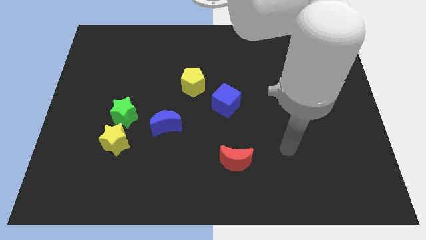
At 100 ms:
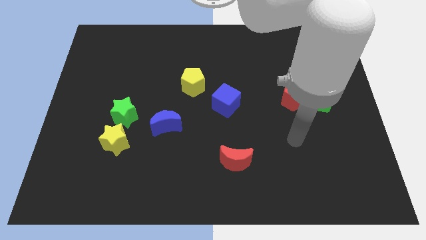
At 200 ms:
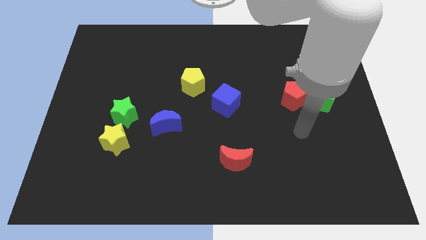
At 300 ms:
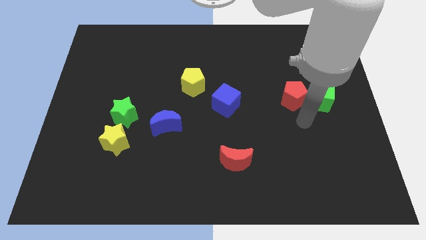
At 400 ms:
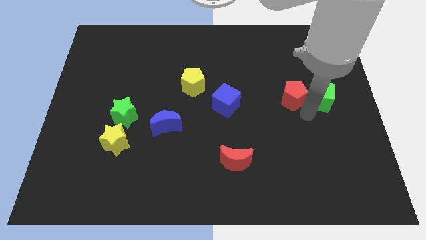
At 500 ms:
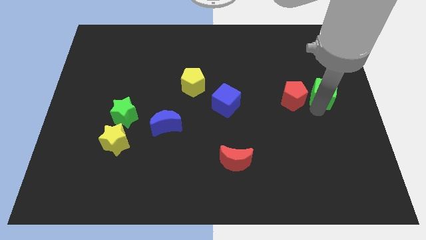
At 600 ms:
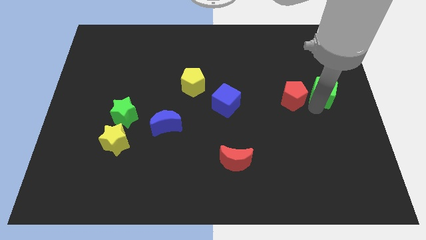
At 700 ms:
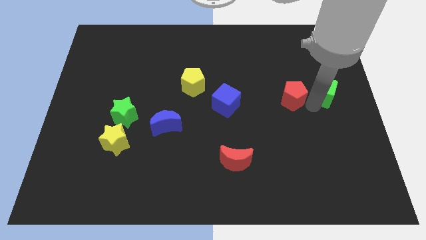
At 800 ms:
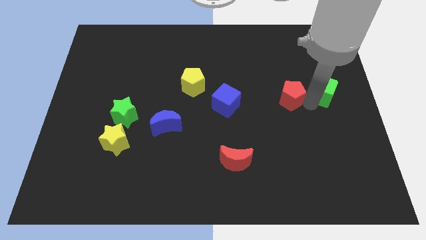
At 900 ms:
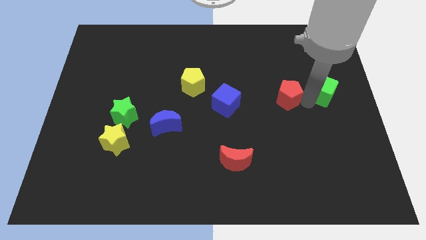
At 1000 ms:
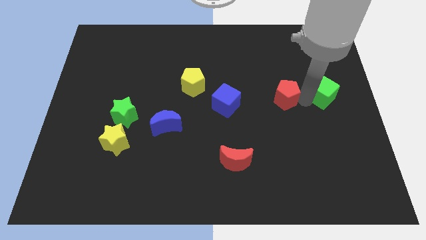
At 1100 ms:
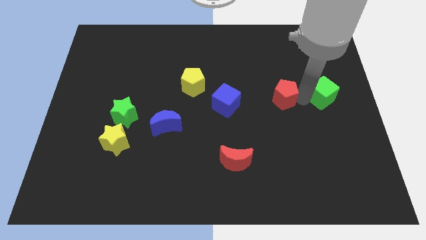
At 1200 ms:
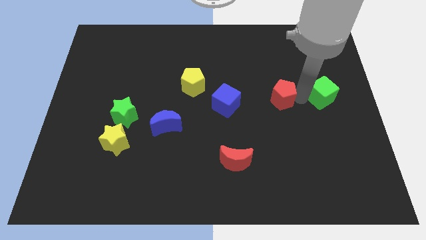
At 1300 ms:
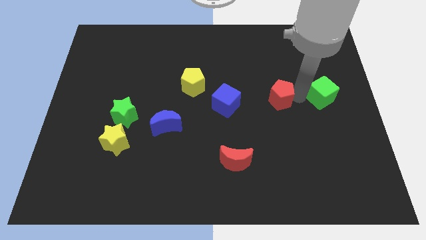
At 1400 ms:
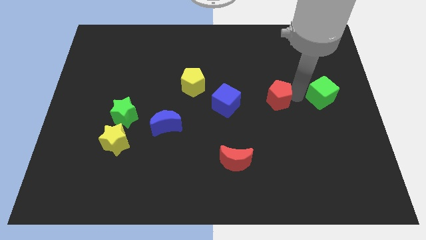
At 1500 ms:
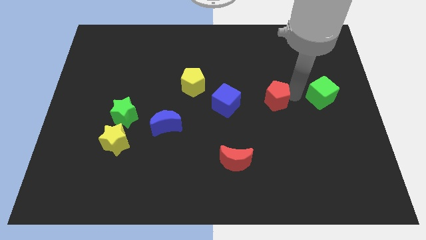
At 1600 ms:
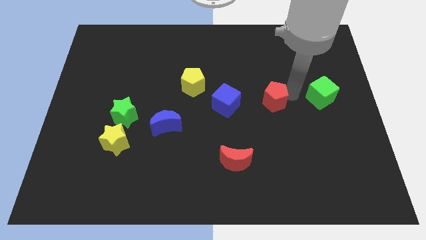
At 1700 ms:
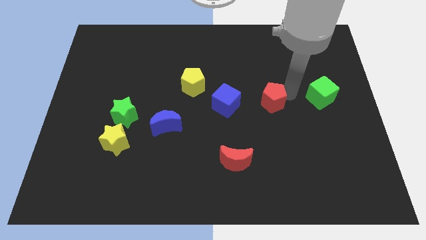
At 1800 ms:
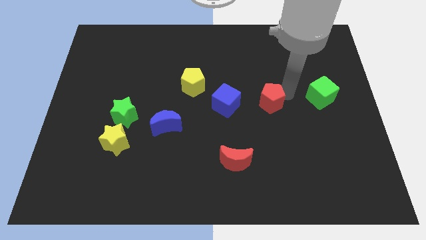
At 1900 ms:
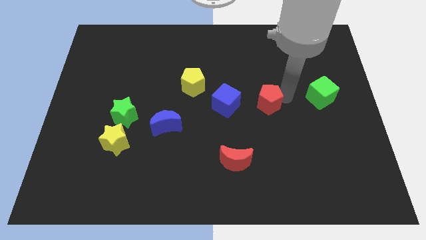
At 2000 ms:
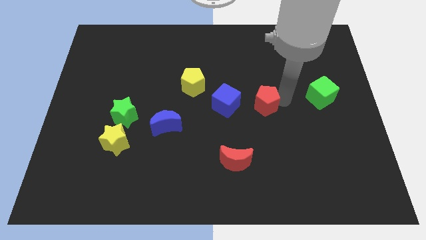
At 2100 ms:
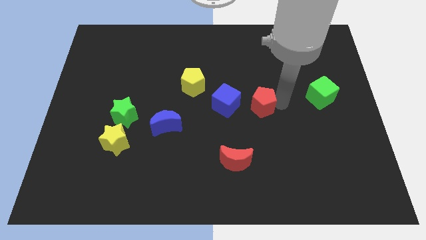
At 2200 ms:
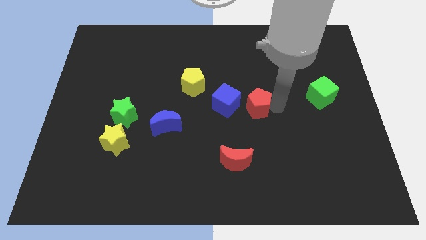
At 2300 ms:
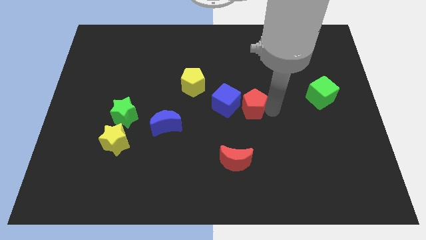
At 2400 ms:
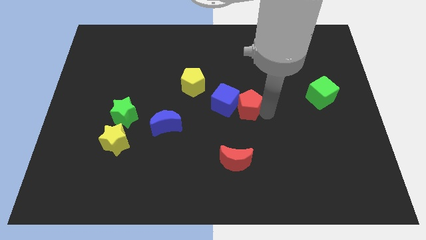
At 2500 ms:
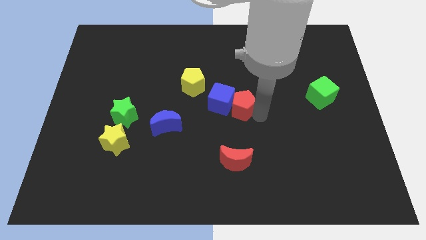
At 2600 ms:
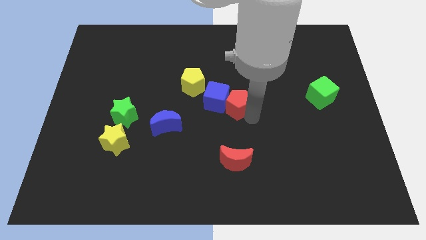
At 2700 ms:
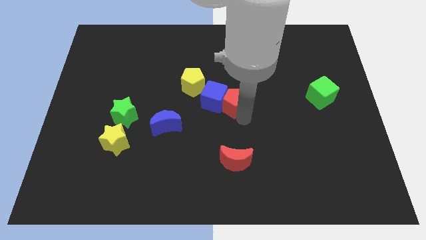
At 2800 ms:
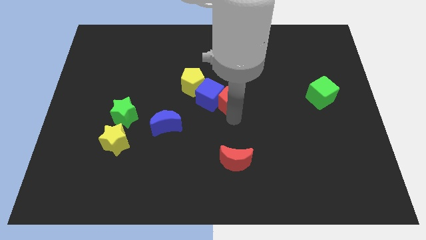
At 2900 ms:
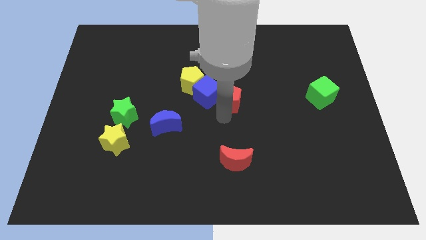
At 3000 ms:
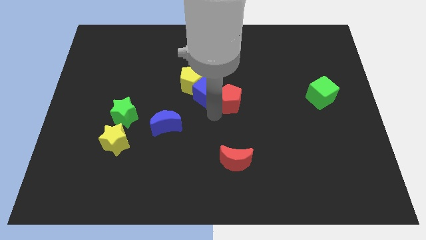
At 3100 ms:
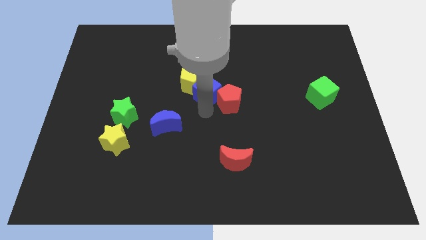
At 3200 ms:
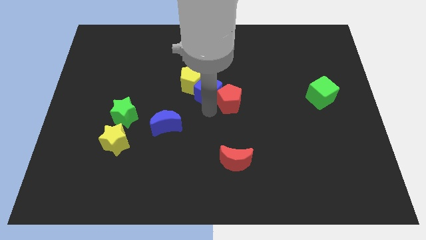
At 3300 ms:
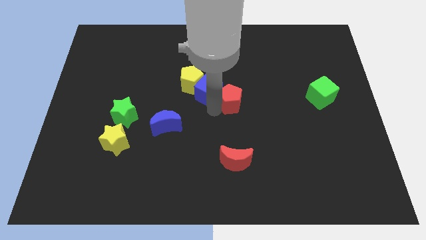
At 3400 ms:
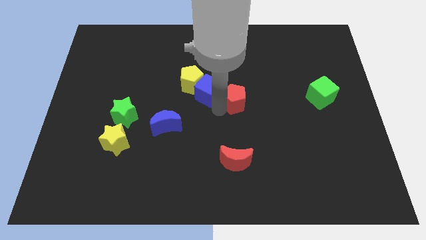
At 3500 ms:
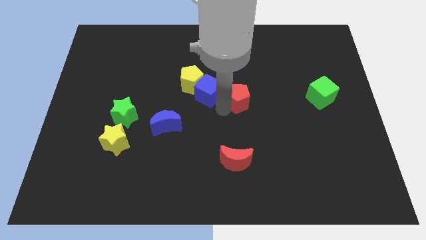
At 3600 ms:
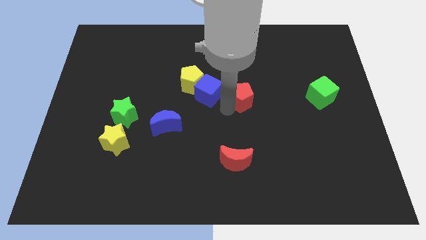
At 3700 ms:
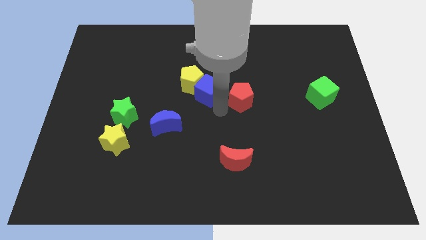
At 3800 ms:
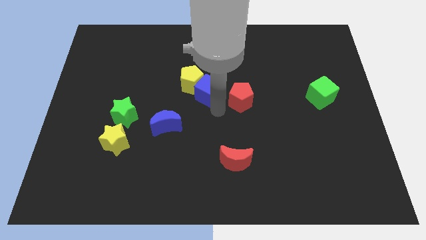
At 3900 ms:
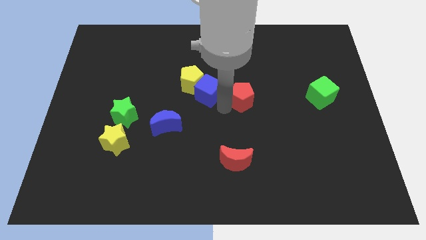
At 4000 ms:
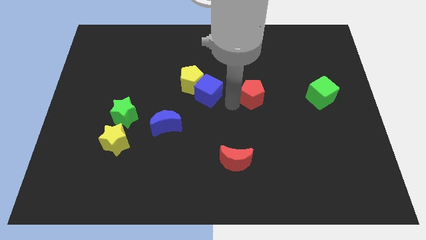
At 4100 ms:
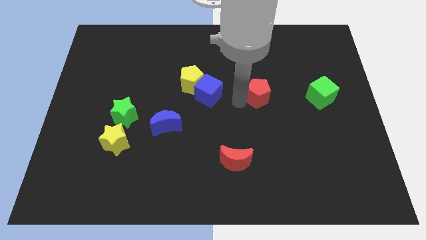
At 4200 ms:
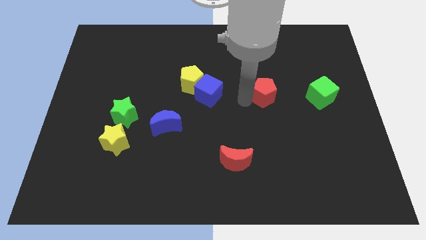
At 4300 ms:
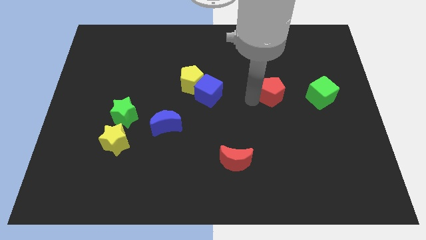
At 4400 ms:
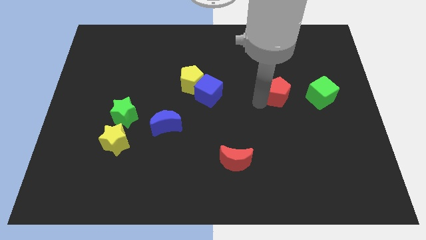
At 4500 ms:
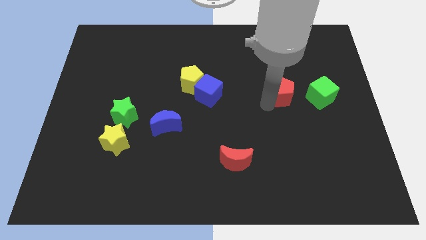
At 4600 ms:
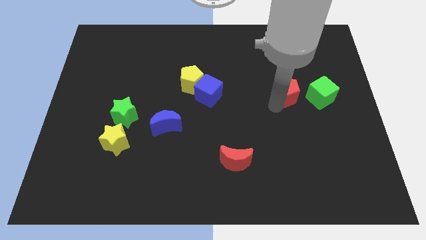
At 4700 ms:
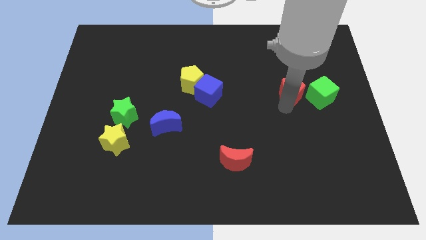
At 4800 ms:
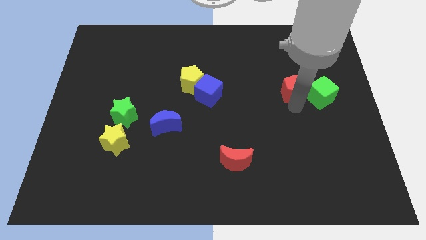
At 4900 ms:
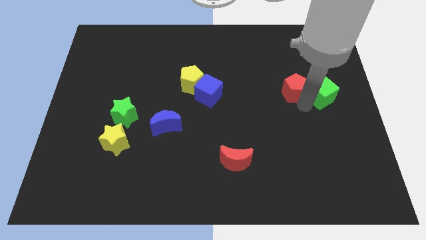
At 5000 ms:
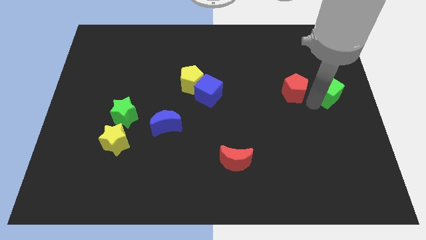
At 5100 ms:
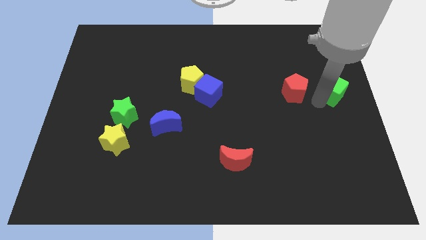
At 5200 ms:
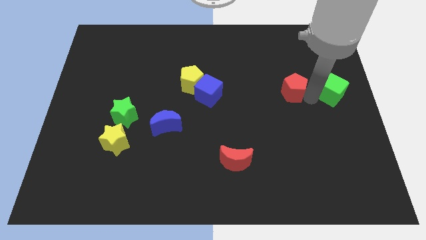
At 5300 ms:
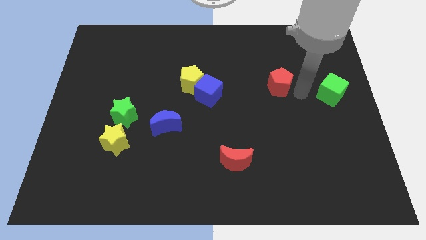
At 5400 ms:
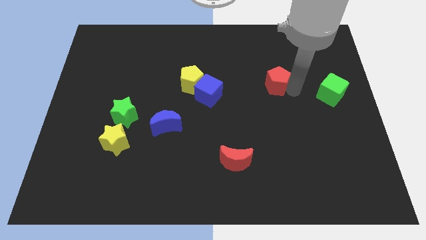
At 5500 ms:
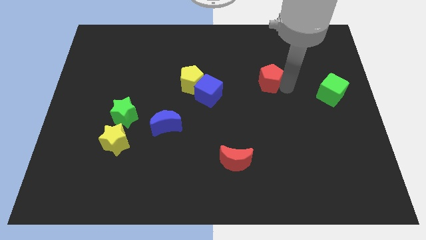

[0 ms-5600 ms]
slightly move the red pentagon upwards and left diagonally

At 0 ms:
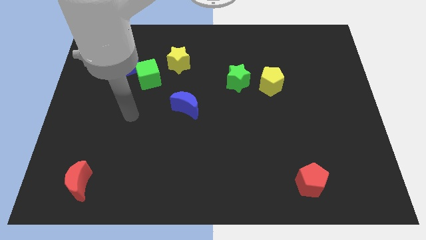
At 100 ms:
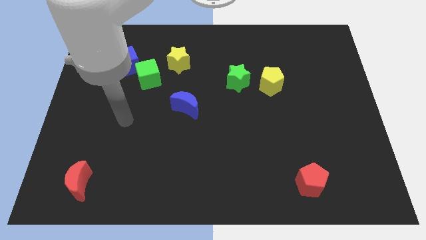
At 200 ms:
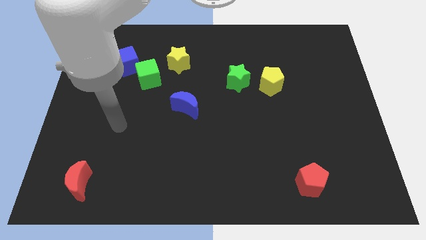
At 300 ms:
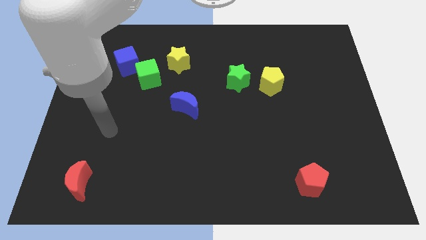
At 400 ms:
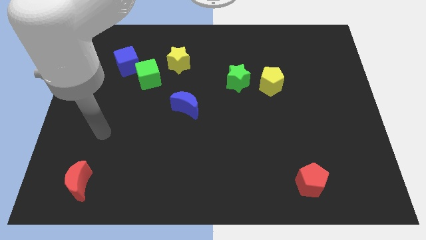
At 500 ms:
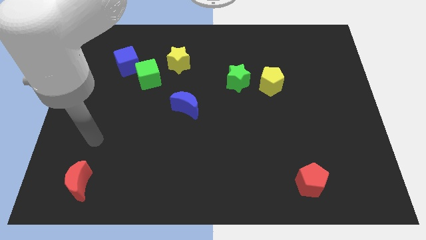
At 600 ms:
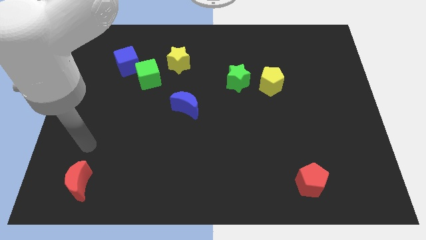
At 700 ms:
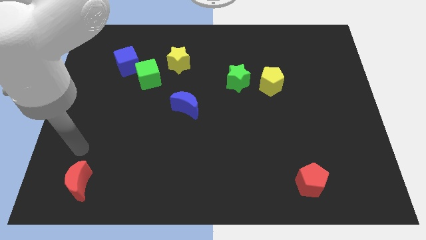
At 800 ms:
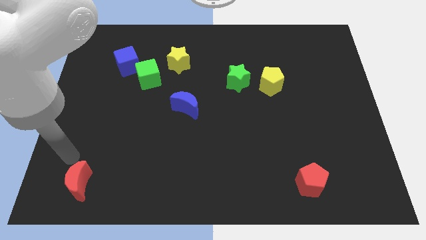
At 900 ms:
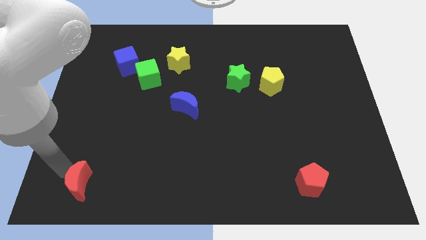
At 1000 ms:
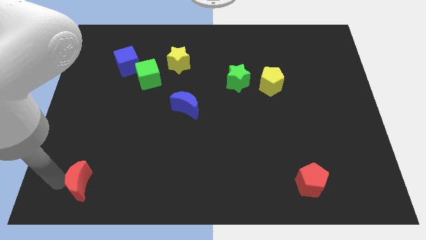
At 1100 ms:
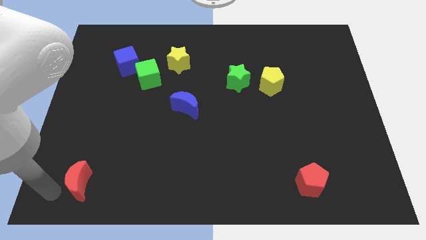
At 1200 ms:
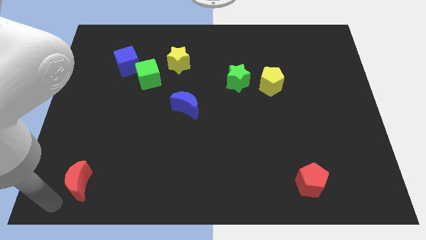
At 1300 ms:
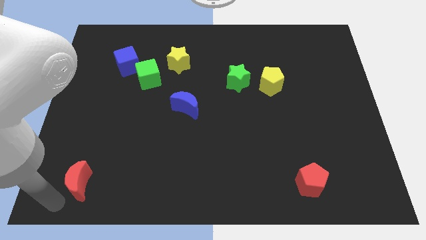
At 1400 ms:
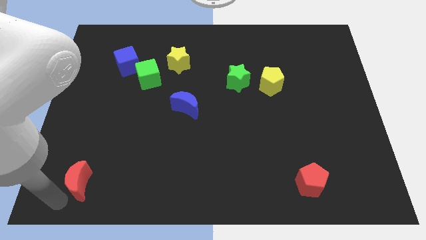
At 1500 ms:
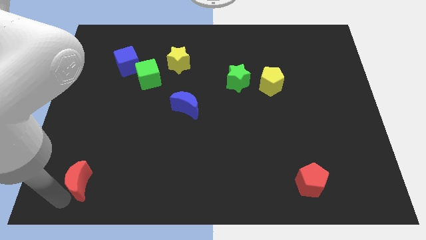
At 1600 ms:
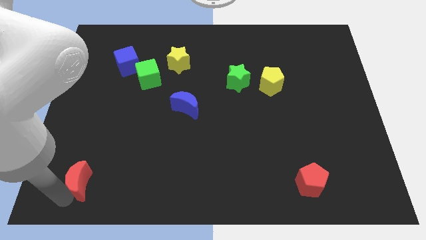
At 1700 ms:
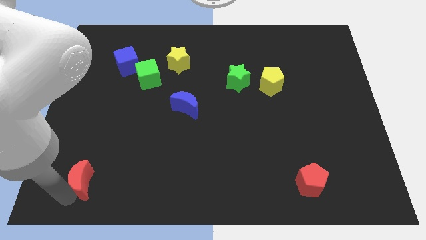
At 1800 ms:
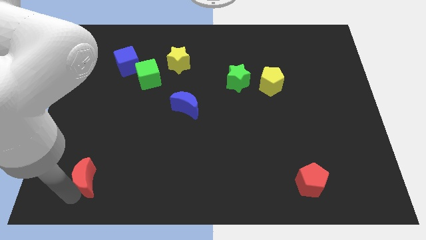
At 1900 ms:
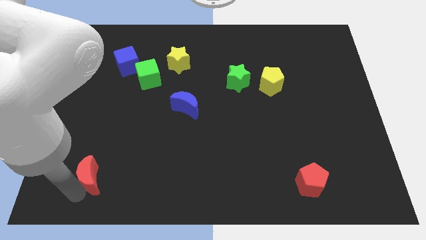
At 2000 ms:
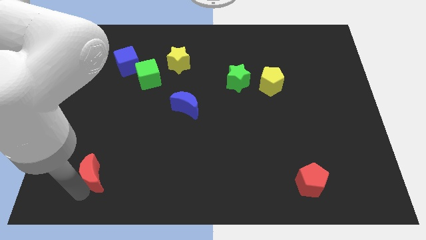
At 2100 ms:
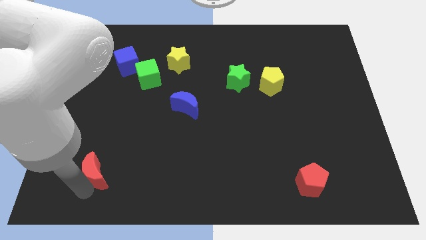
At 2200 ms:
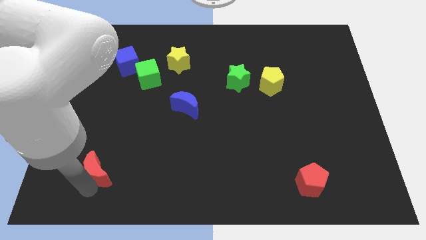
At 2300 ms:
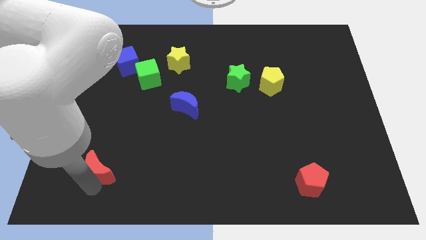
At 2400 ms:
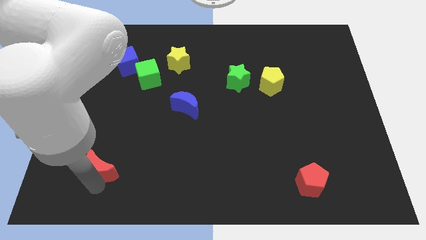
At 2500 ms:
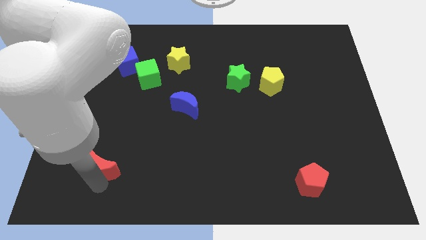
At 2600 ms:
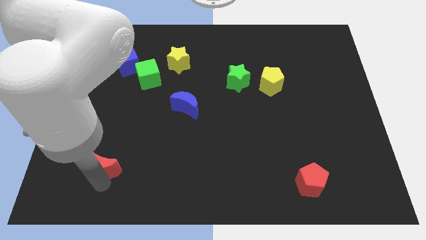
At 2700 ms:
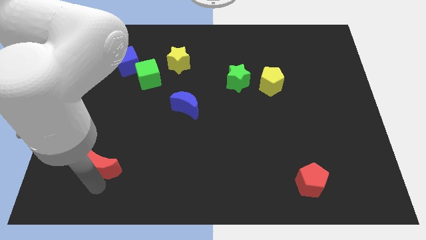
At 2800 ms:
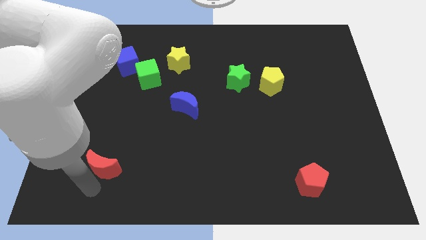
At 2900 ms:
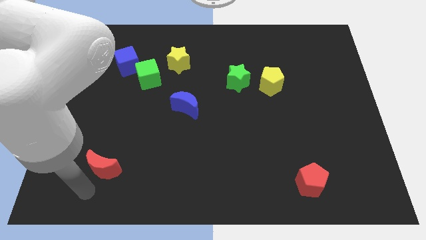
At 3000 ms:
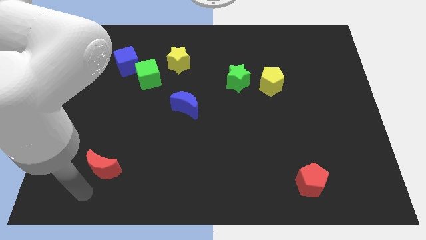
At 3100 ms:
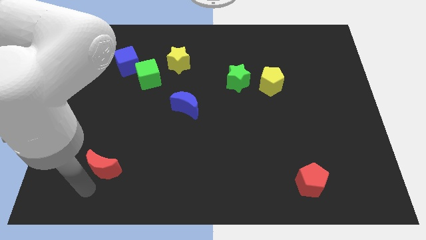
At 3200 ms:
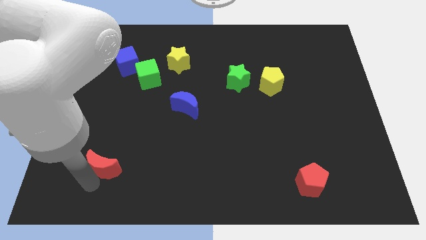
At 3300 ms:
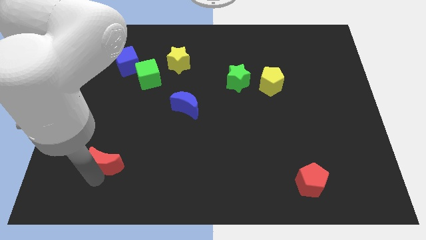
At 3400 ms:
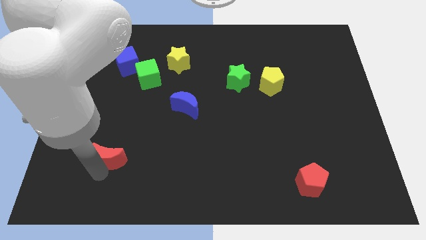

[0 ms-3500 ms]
slide the red moon upwards and then right a bit
